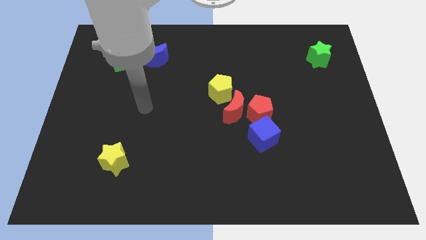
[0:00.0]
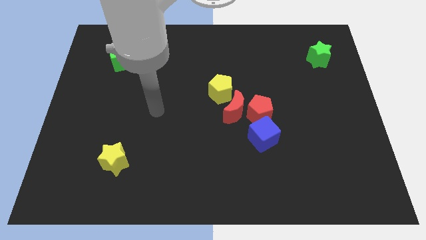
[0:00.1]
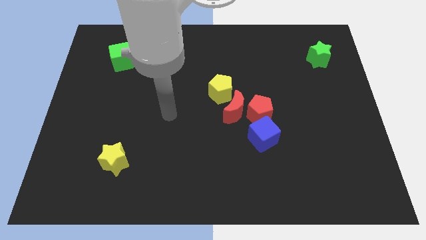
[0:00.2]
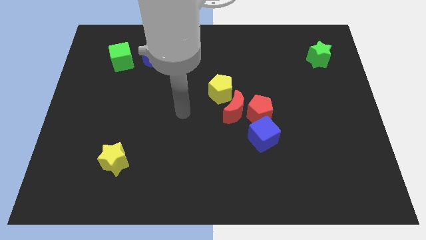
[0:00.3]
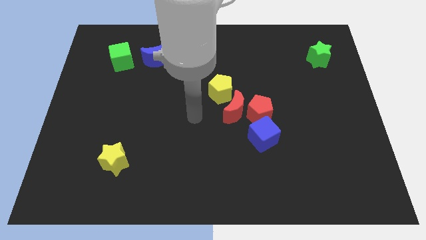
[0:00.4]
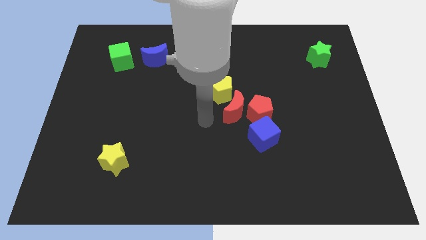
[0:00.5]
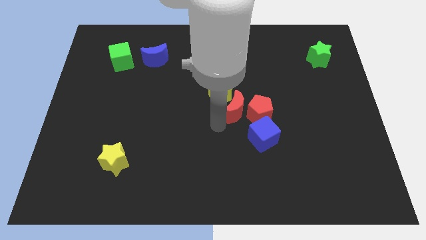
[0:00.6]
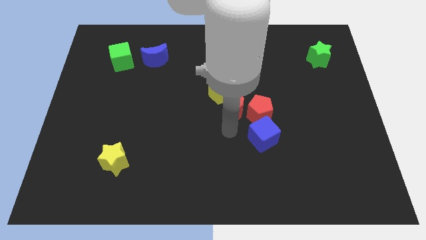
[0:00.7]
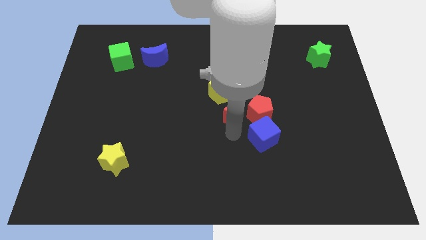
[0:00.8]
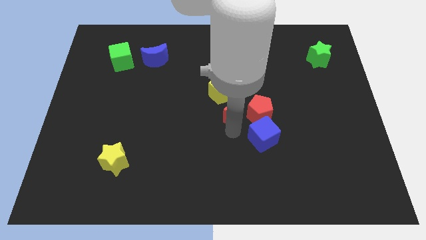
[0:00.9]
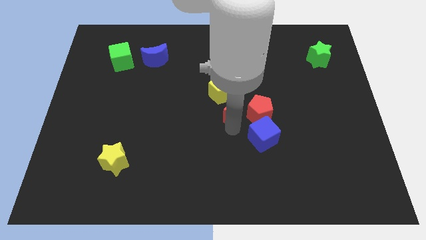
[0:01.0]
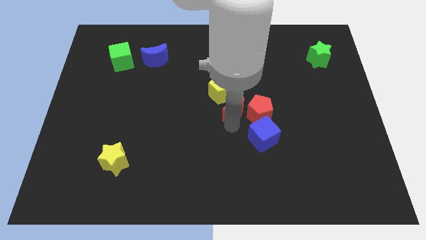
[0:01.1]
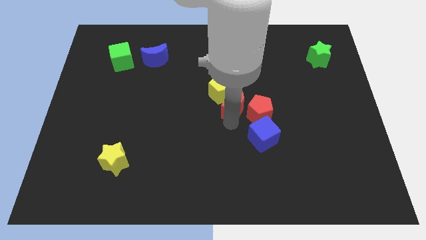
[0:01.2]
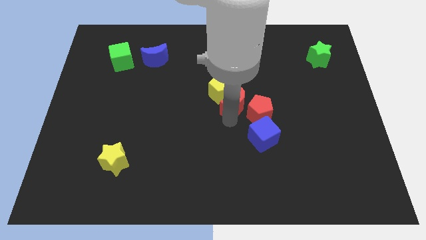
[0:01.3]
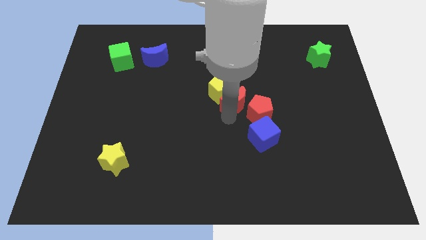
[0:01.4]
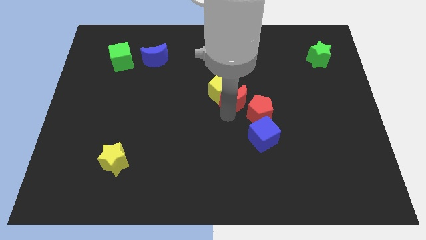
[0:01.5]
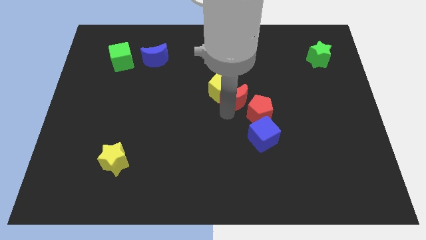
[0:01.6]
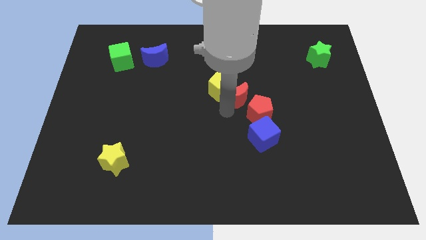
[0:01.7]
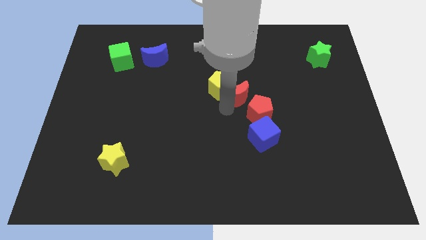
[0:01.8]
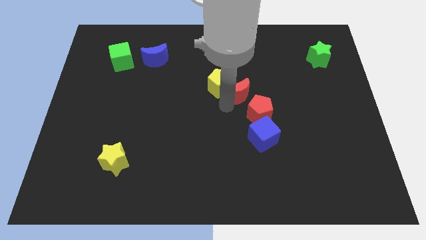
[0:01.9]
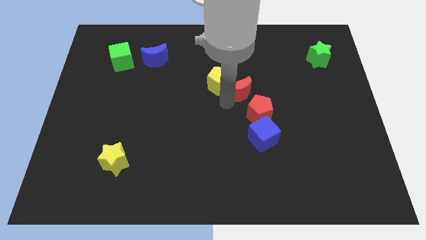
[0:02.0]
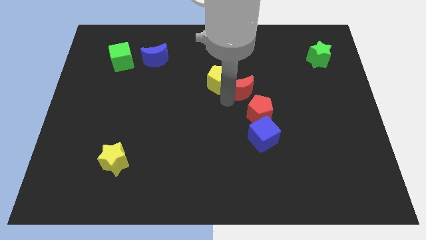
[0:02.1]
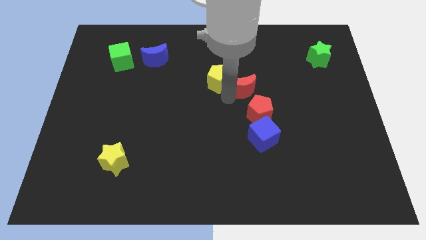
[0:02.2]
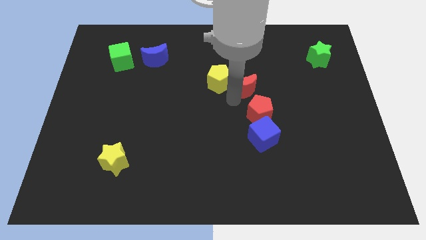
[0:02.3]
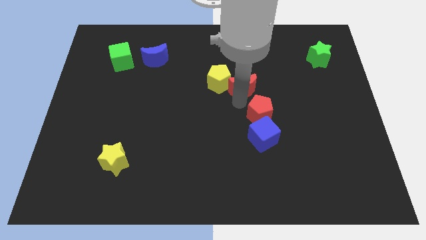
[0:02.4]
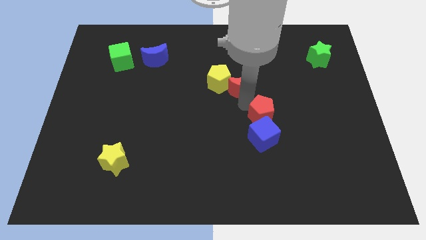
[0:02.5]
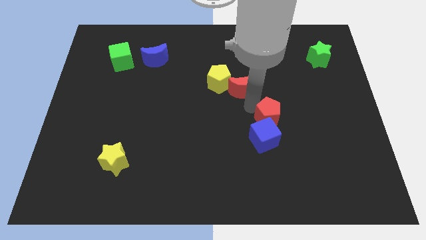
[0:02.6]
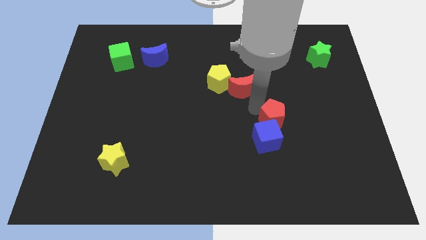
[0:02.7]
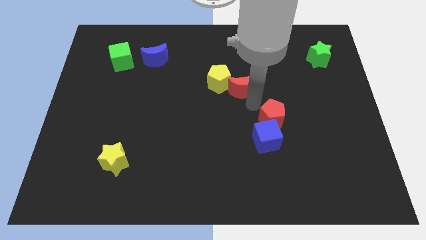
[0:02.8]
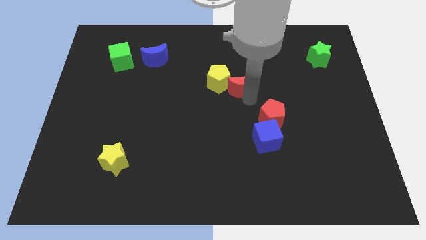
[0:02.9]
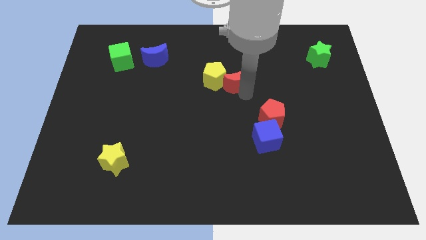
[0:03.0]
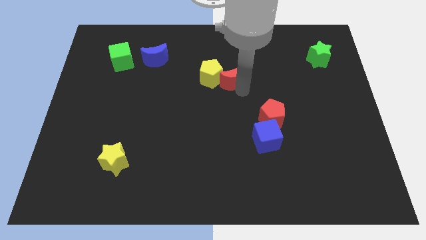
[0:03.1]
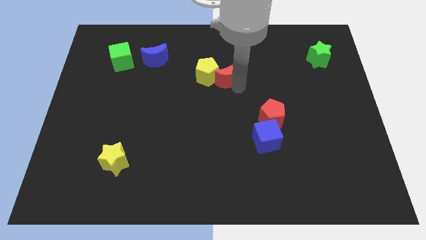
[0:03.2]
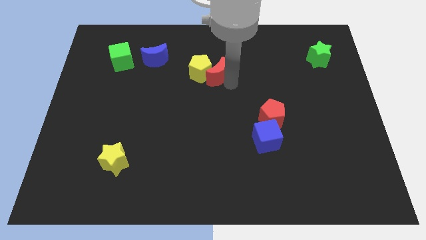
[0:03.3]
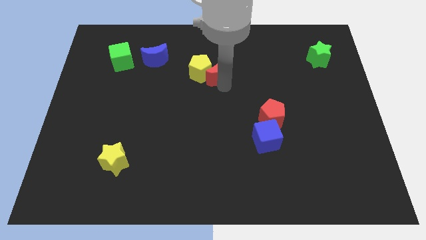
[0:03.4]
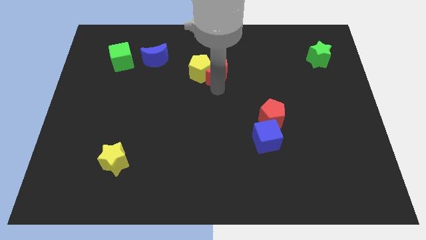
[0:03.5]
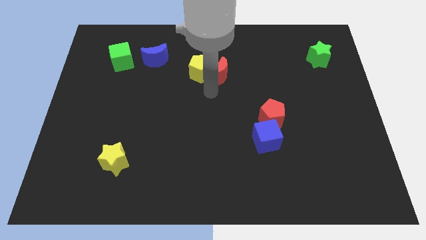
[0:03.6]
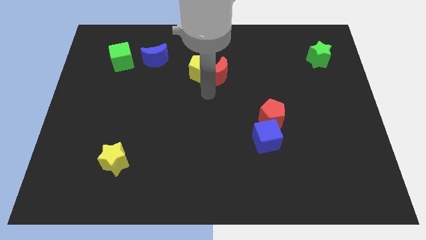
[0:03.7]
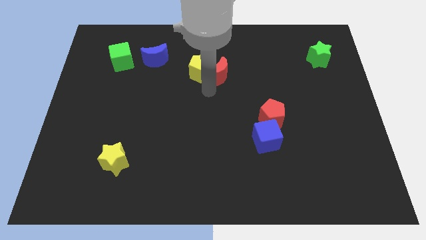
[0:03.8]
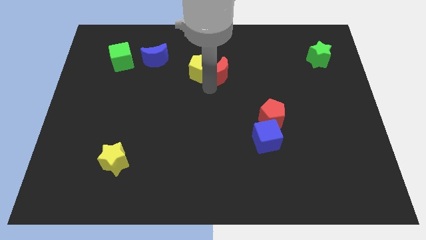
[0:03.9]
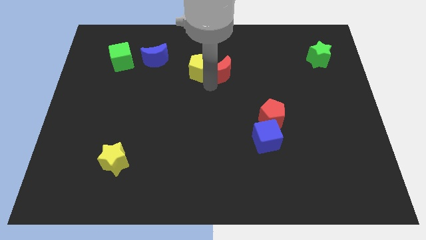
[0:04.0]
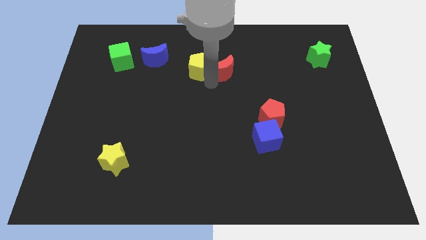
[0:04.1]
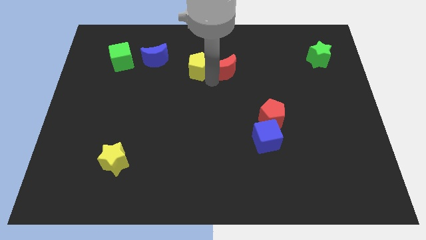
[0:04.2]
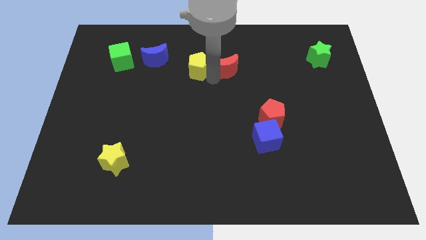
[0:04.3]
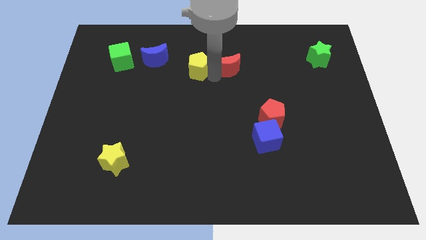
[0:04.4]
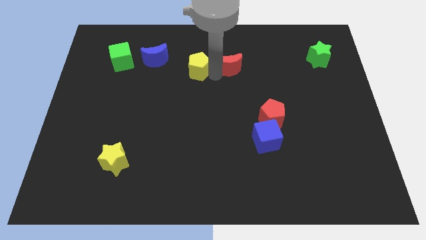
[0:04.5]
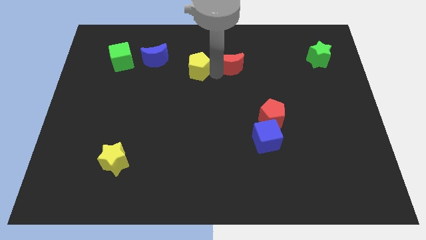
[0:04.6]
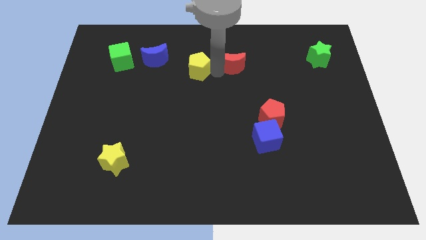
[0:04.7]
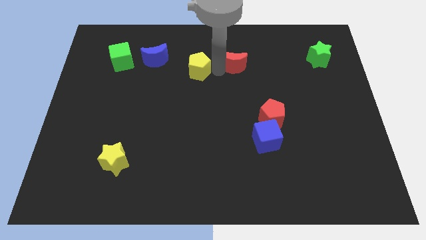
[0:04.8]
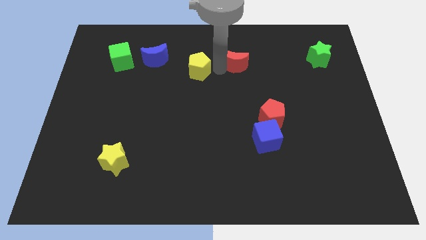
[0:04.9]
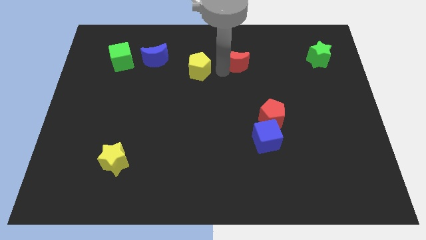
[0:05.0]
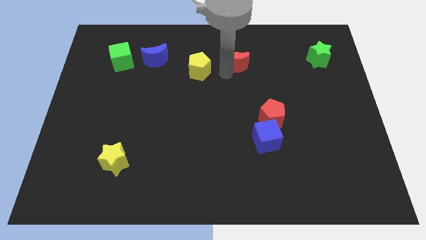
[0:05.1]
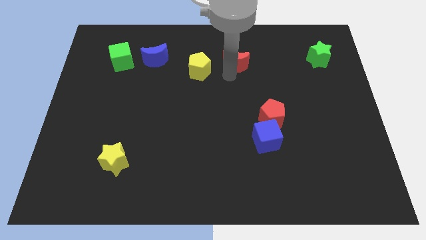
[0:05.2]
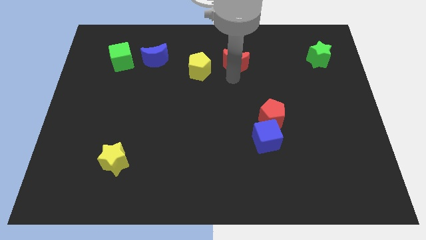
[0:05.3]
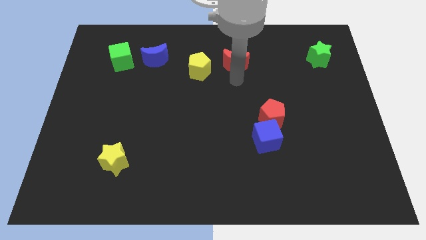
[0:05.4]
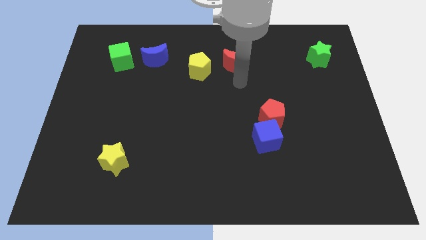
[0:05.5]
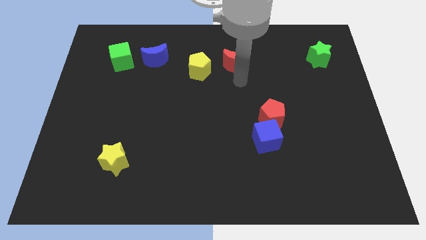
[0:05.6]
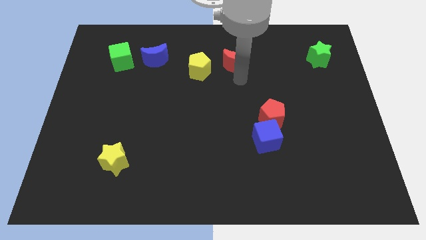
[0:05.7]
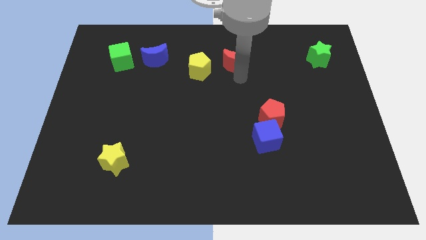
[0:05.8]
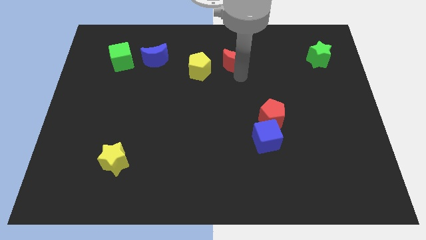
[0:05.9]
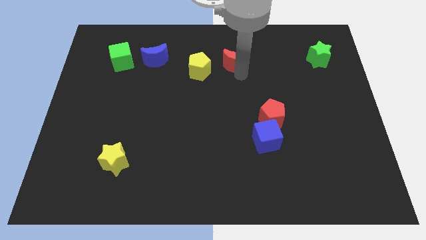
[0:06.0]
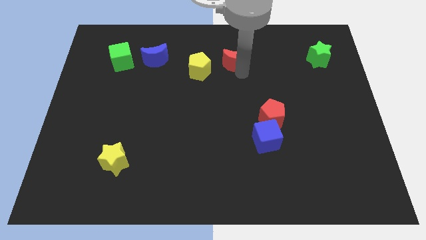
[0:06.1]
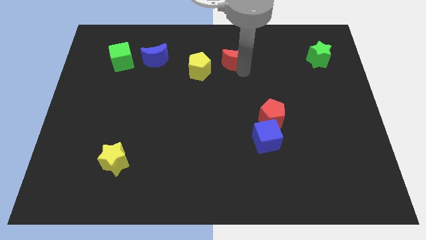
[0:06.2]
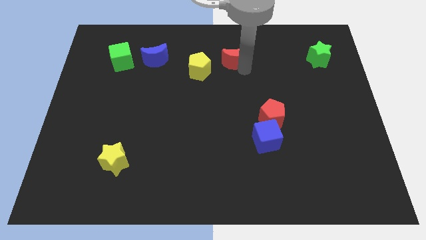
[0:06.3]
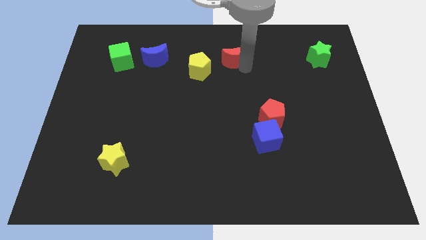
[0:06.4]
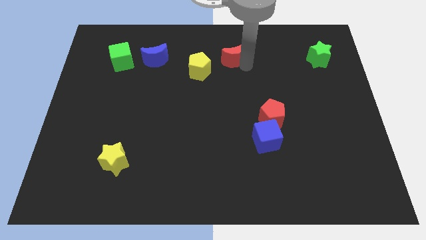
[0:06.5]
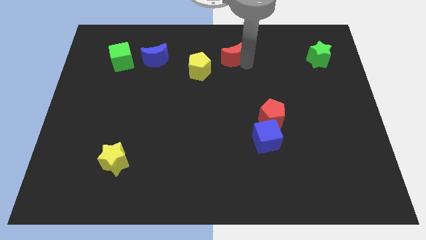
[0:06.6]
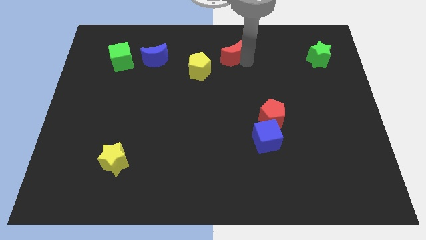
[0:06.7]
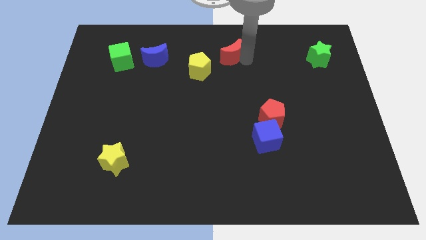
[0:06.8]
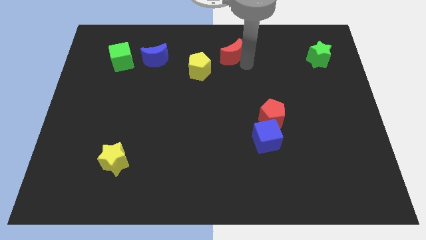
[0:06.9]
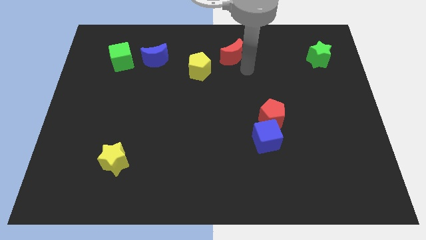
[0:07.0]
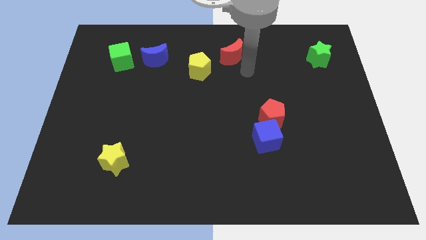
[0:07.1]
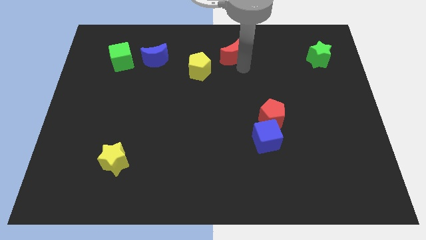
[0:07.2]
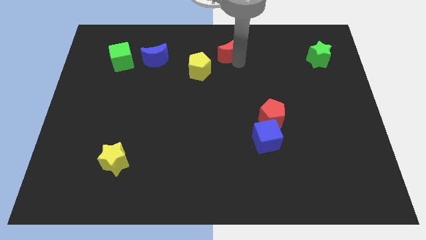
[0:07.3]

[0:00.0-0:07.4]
move the red moon to the top
